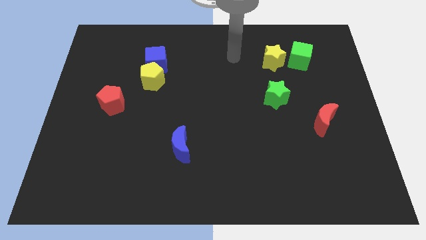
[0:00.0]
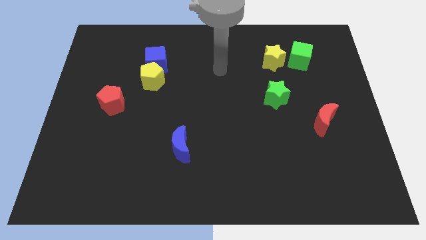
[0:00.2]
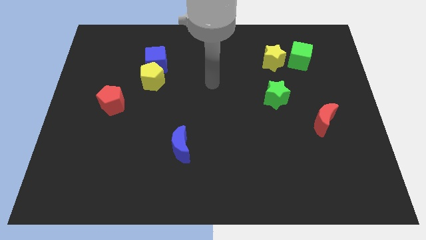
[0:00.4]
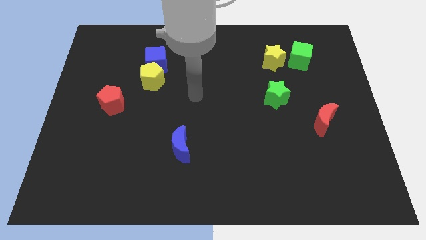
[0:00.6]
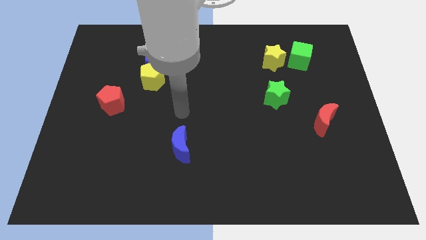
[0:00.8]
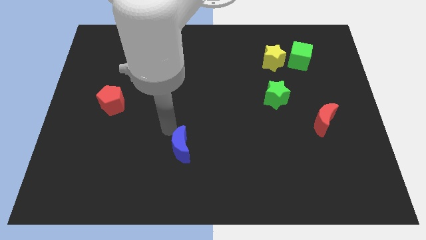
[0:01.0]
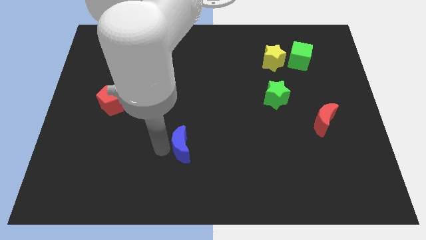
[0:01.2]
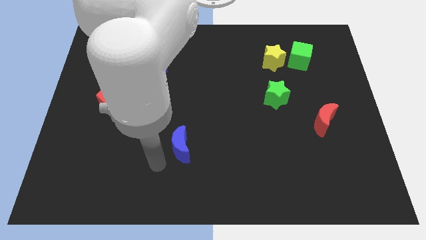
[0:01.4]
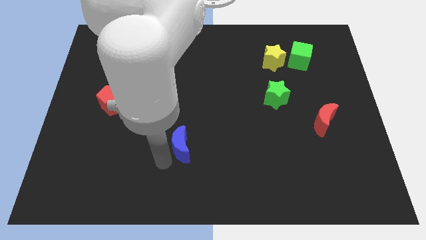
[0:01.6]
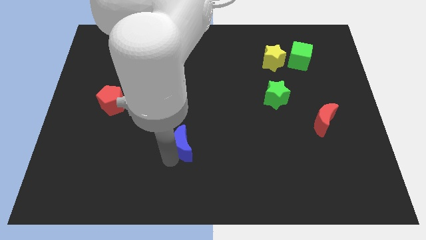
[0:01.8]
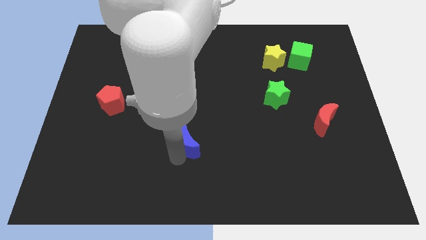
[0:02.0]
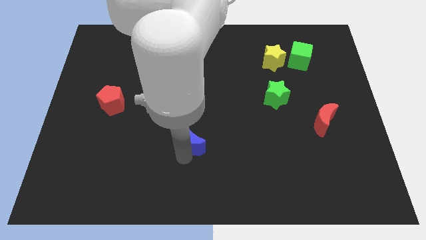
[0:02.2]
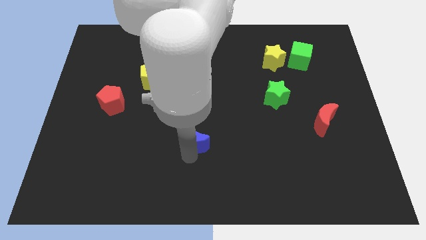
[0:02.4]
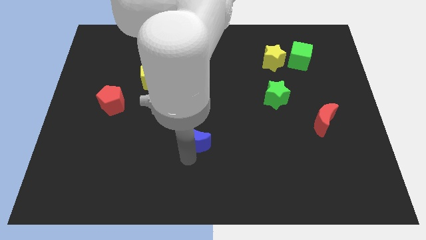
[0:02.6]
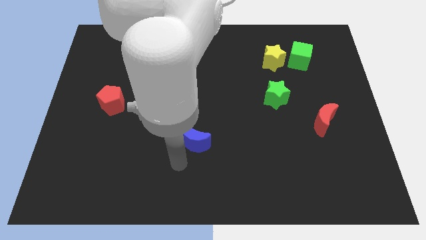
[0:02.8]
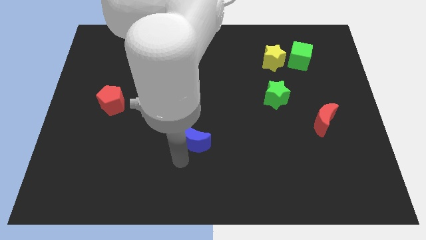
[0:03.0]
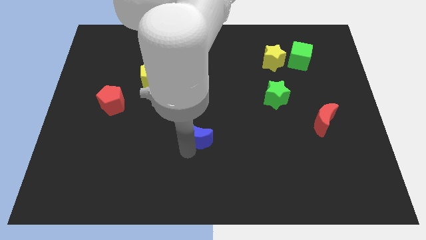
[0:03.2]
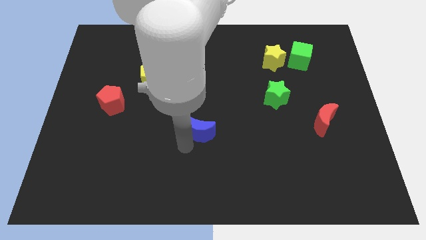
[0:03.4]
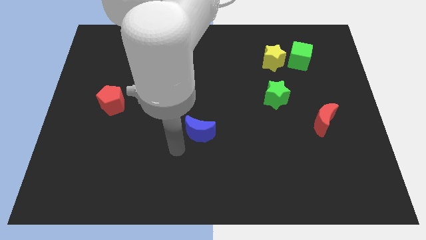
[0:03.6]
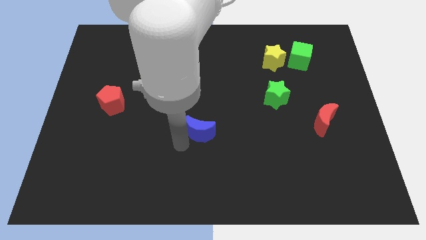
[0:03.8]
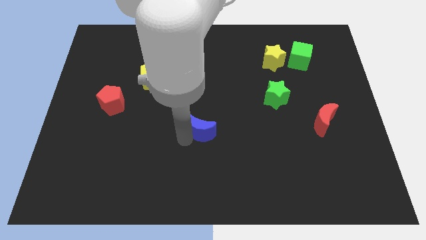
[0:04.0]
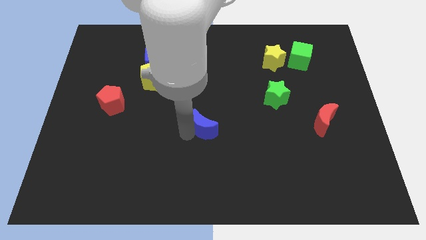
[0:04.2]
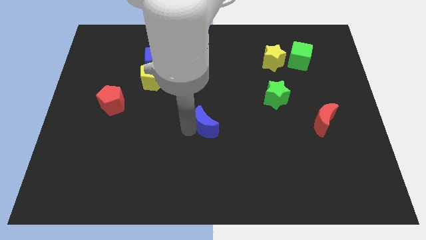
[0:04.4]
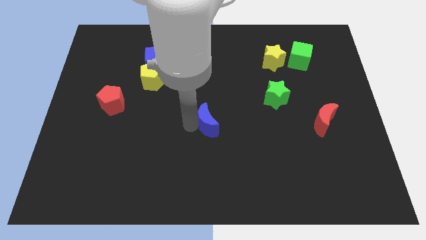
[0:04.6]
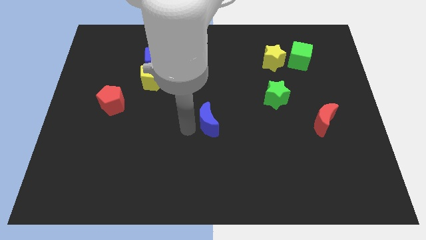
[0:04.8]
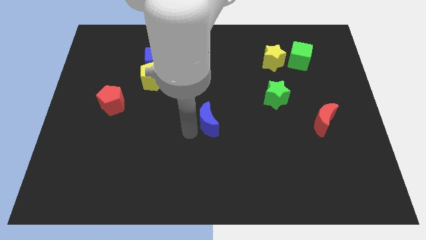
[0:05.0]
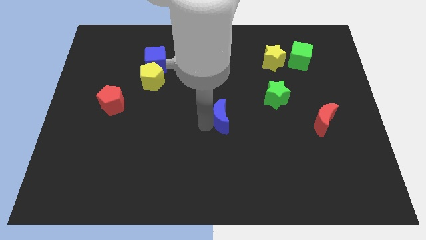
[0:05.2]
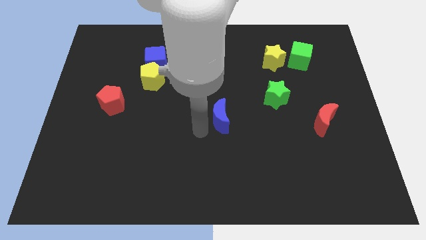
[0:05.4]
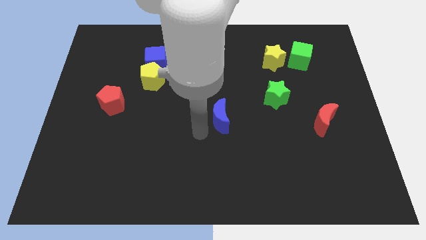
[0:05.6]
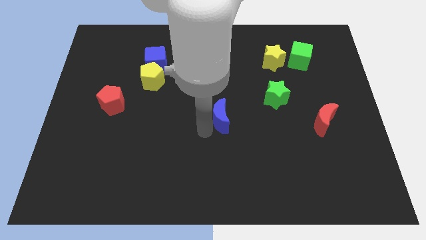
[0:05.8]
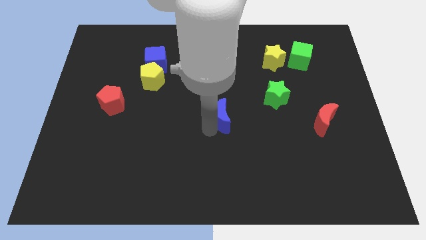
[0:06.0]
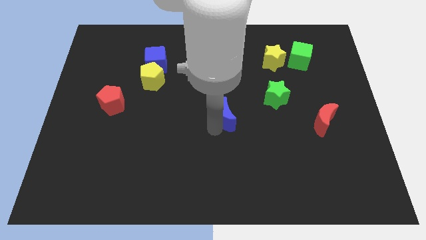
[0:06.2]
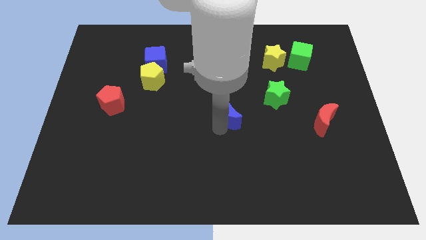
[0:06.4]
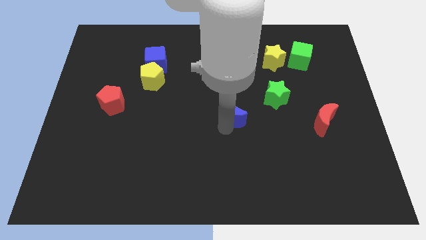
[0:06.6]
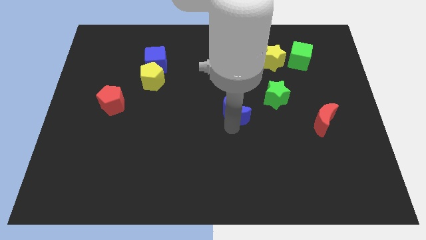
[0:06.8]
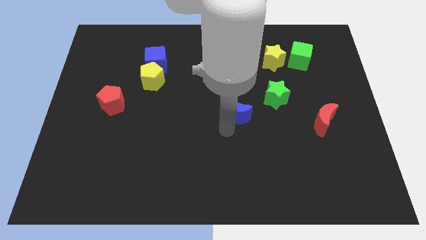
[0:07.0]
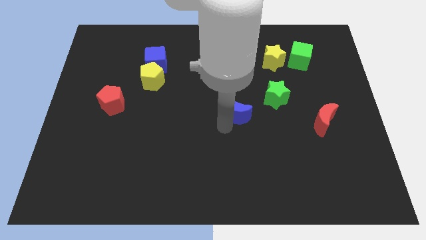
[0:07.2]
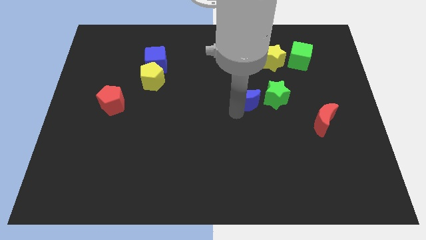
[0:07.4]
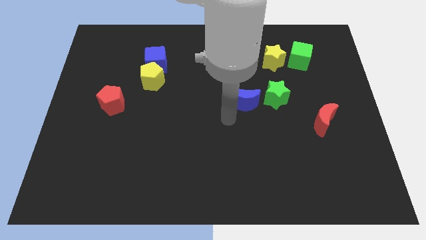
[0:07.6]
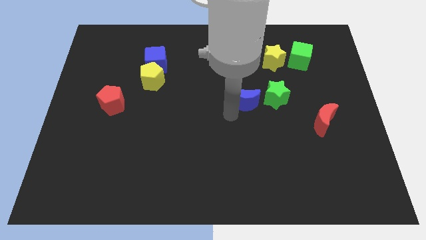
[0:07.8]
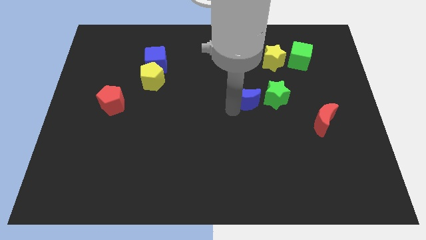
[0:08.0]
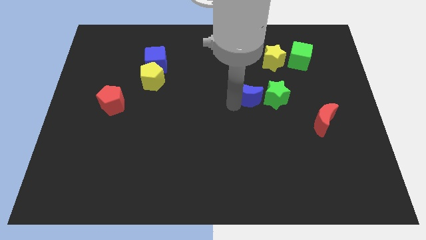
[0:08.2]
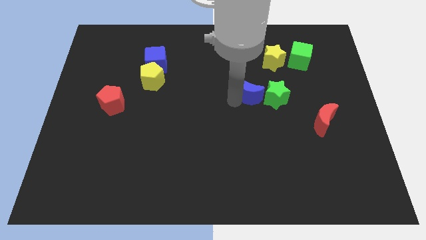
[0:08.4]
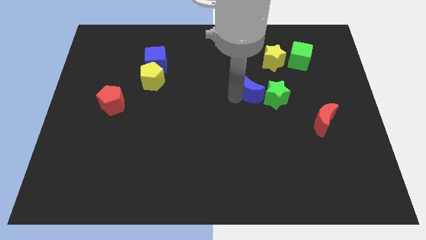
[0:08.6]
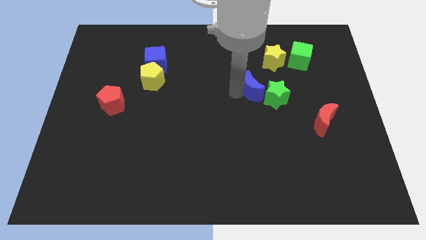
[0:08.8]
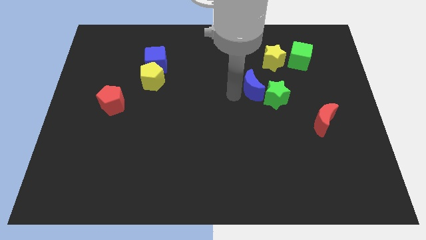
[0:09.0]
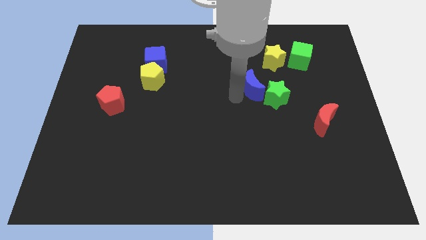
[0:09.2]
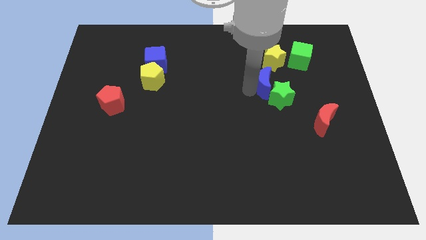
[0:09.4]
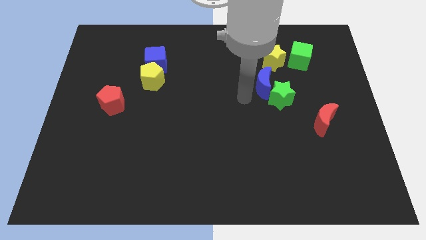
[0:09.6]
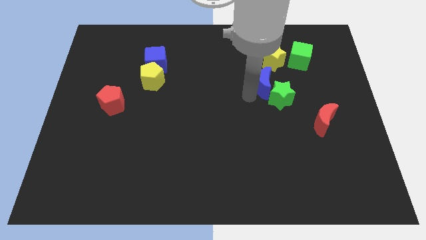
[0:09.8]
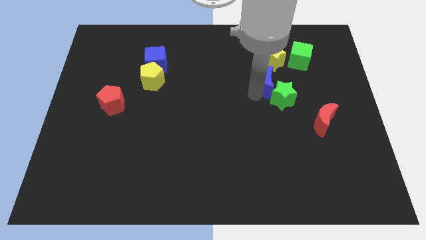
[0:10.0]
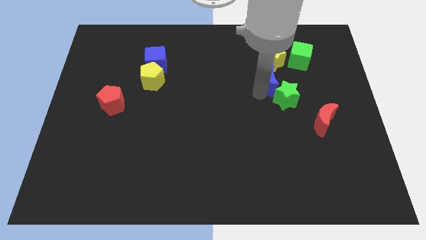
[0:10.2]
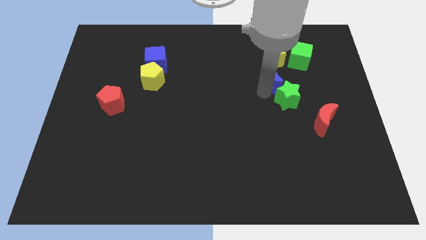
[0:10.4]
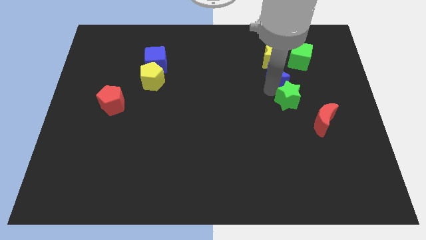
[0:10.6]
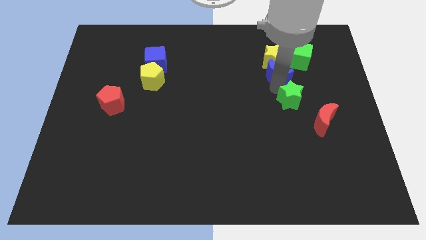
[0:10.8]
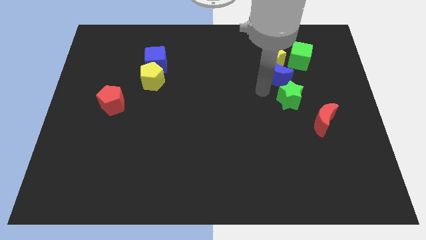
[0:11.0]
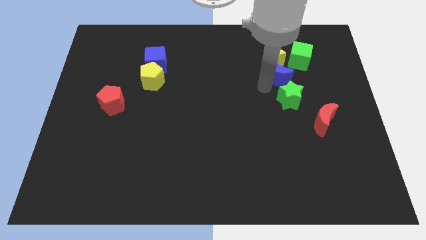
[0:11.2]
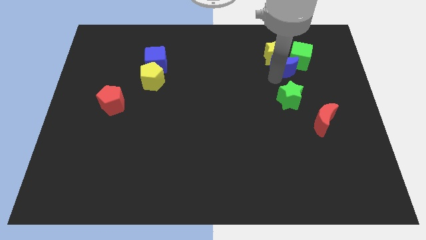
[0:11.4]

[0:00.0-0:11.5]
put the blue moon towards the green cube

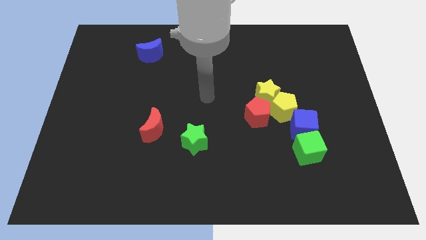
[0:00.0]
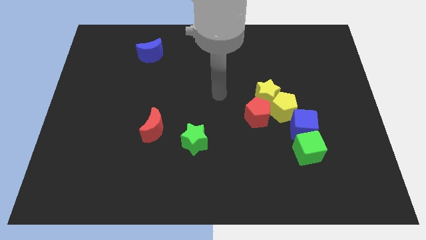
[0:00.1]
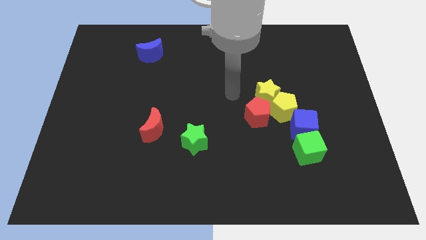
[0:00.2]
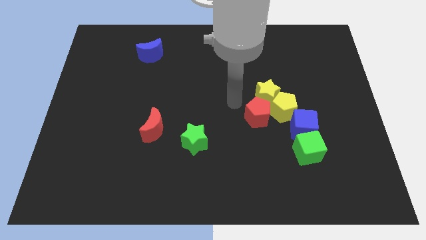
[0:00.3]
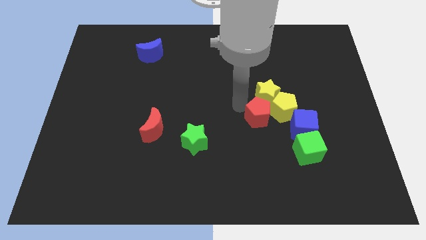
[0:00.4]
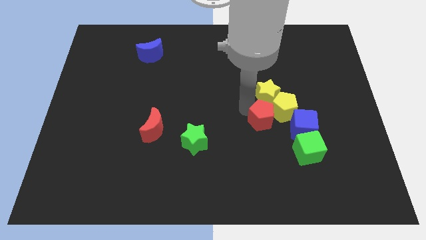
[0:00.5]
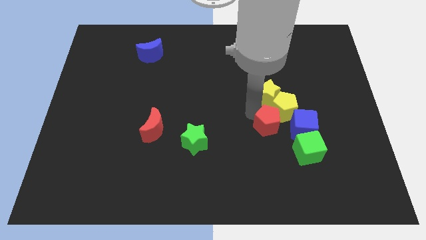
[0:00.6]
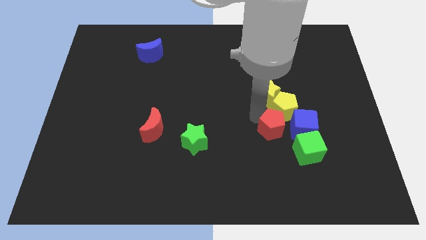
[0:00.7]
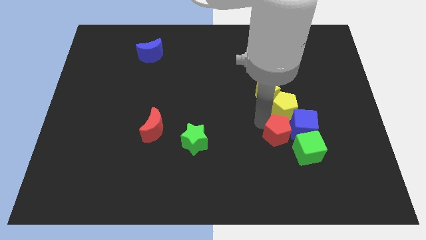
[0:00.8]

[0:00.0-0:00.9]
slide the red pentagon towards the blue cube
